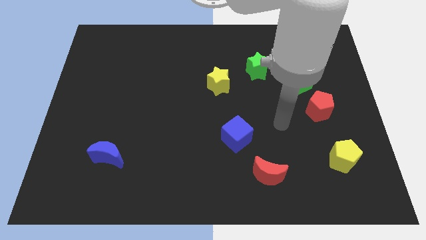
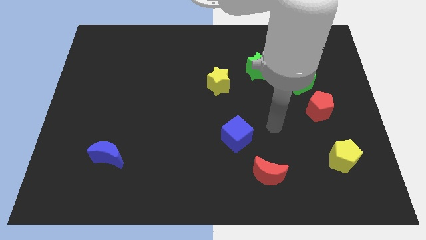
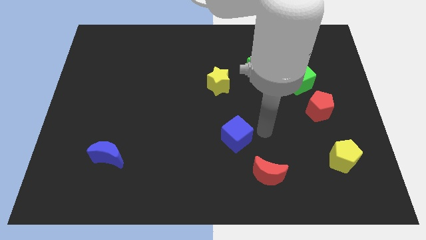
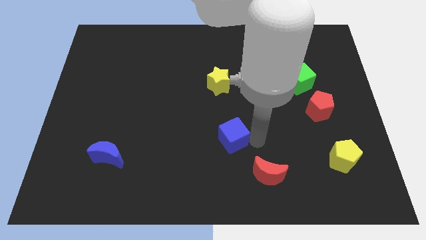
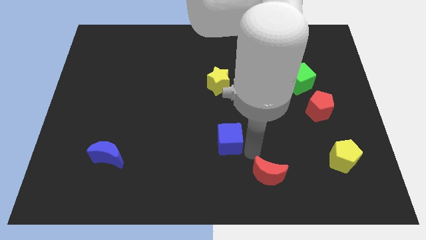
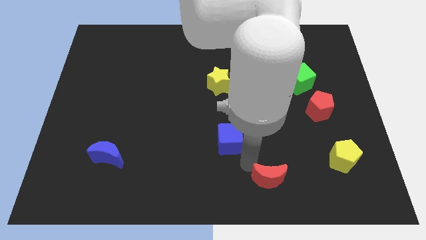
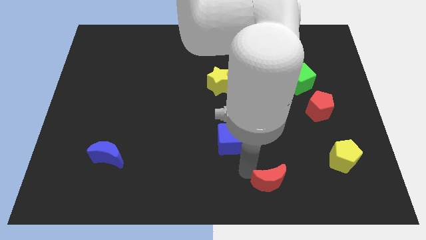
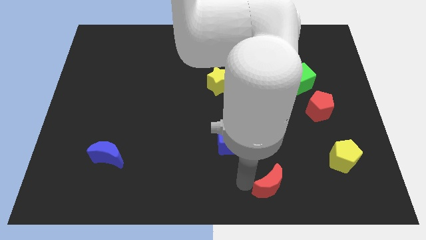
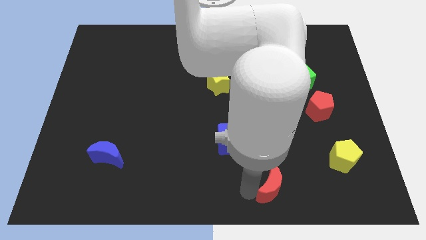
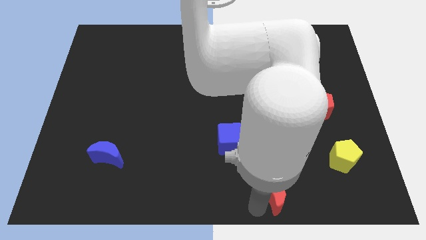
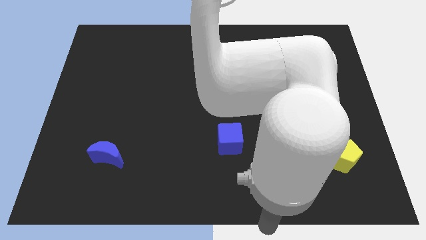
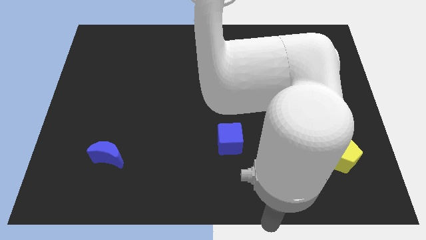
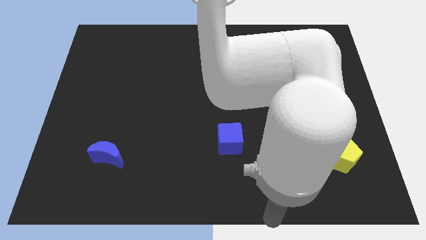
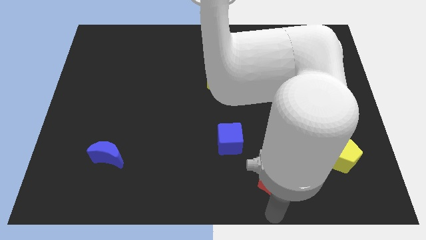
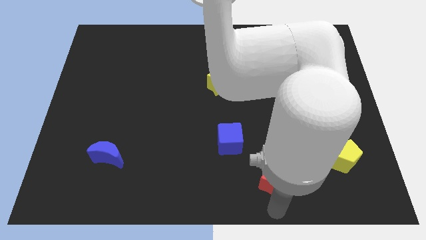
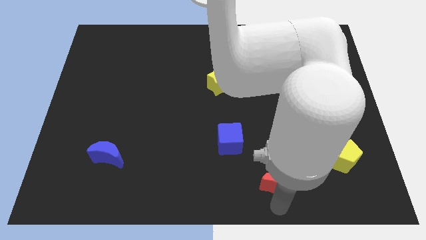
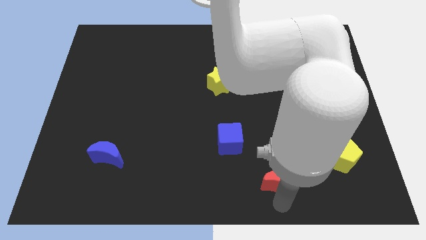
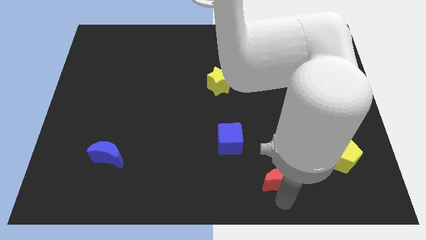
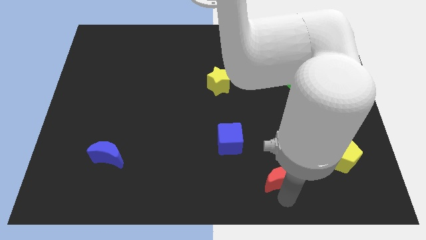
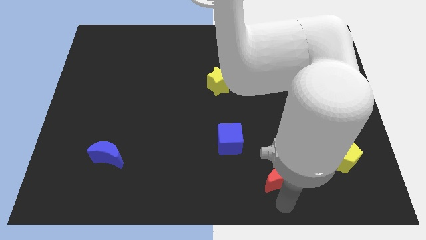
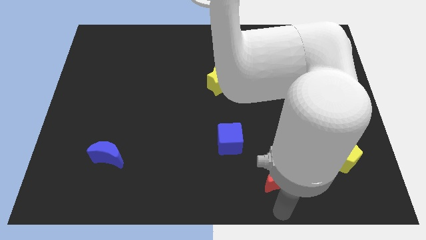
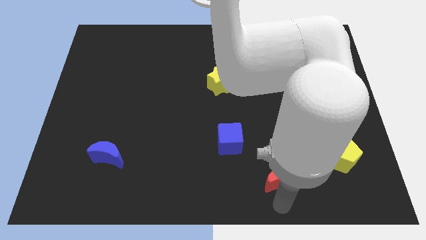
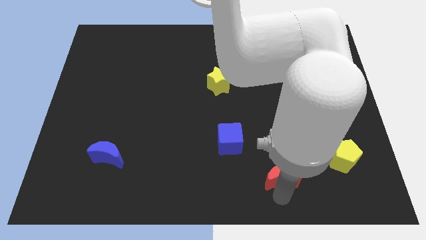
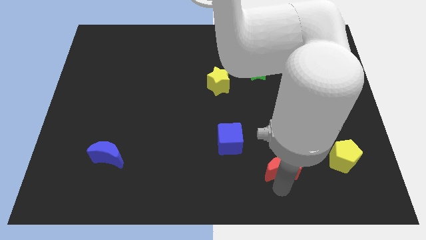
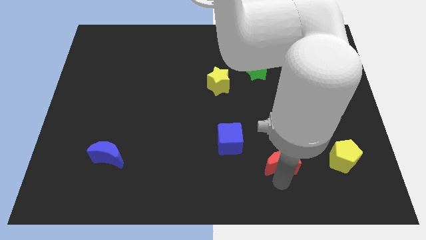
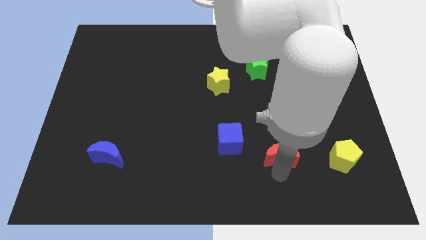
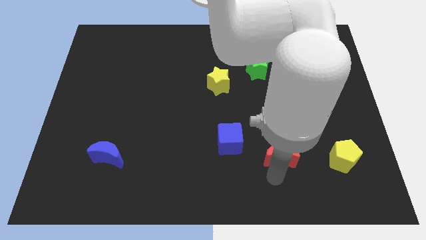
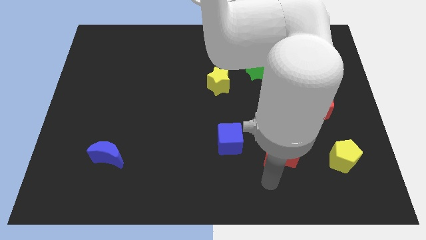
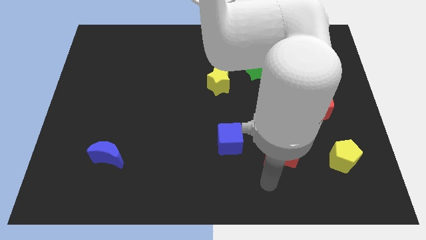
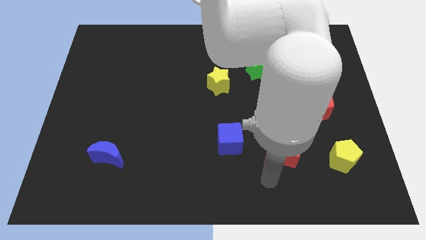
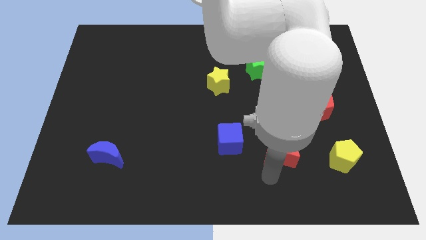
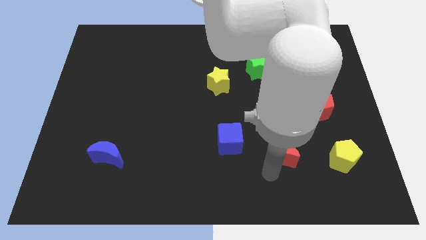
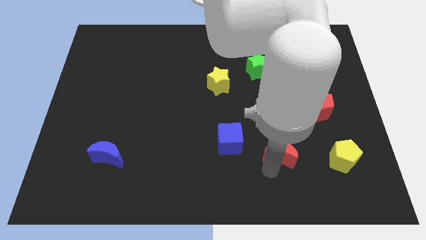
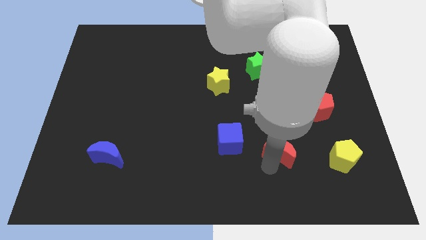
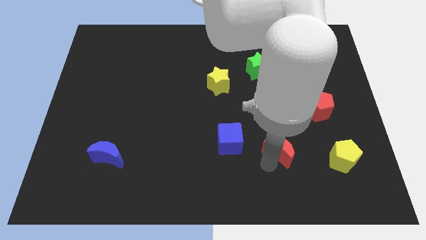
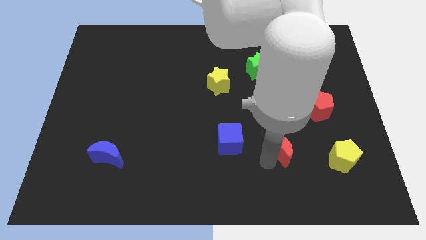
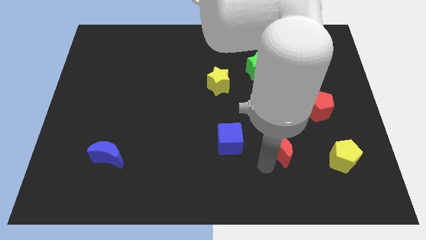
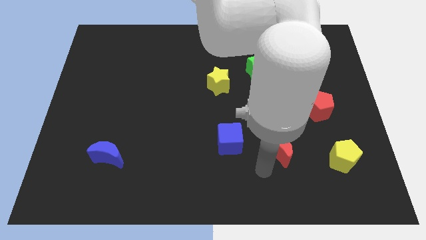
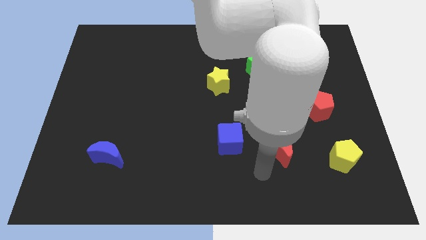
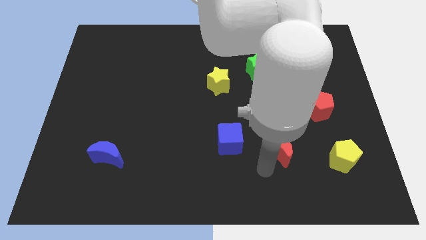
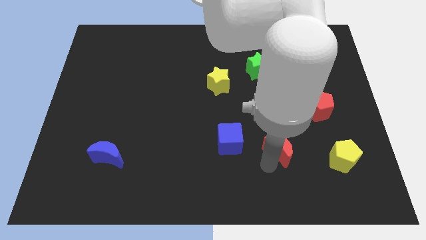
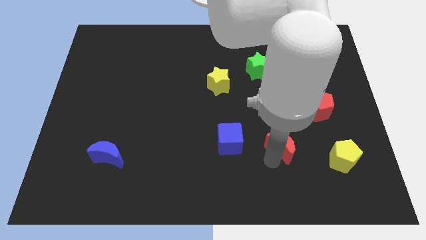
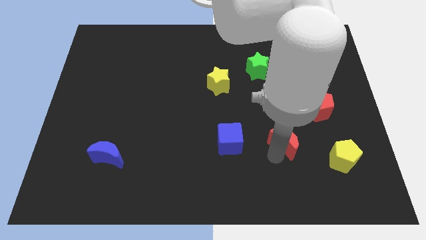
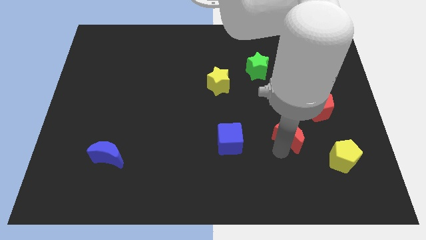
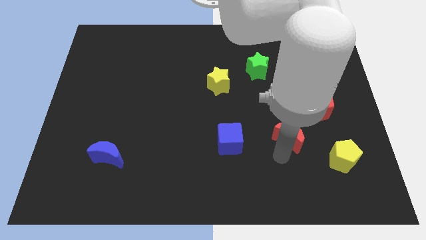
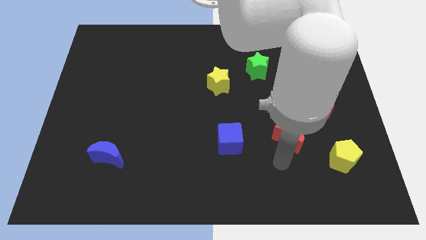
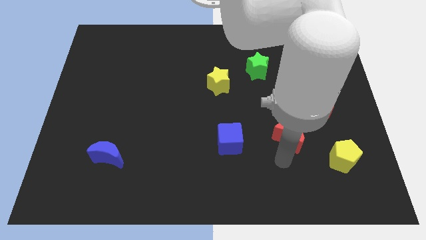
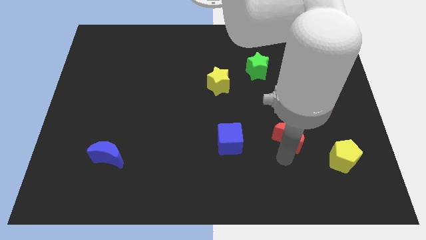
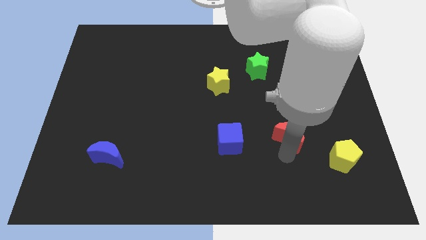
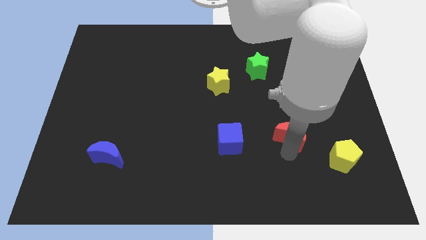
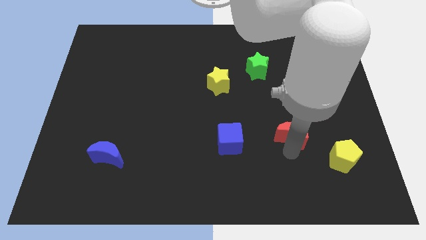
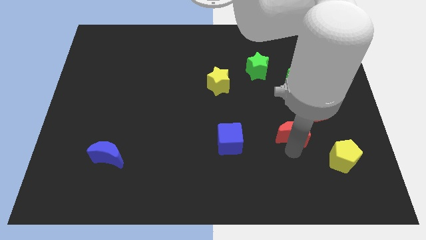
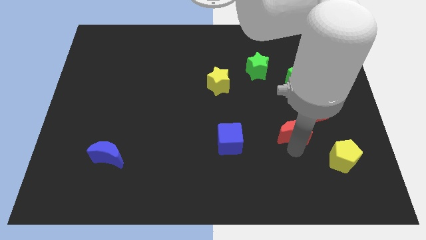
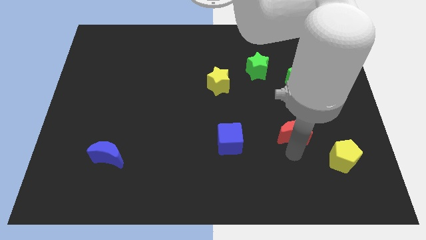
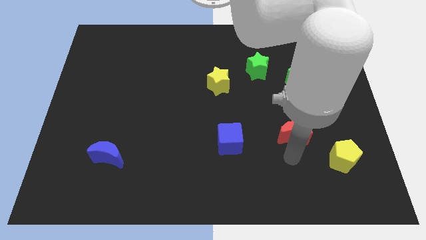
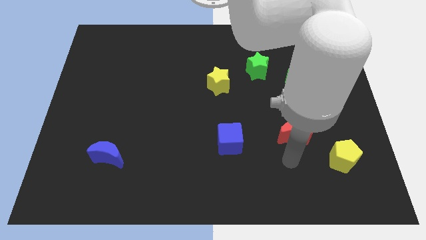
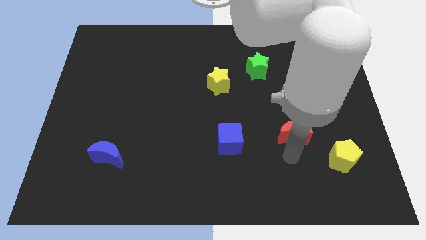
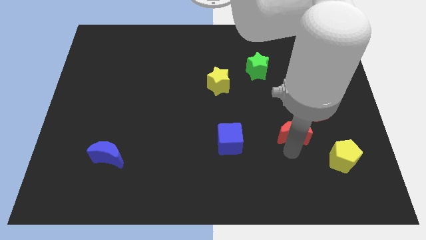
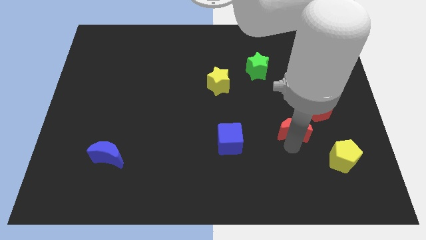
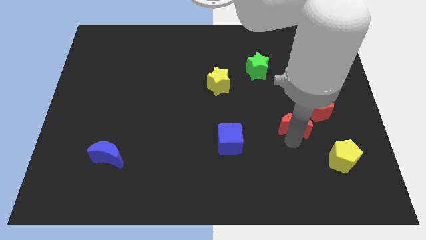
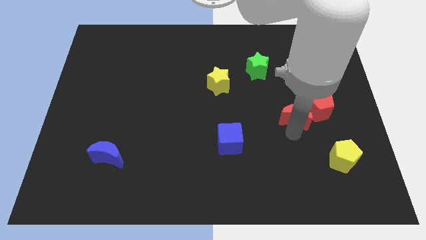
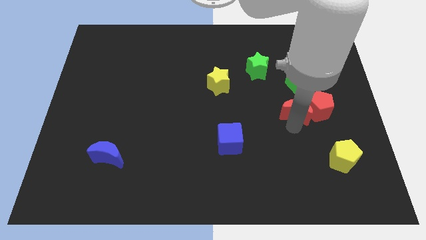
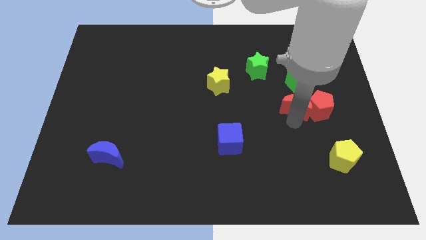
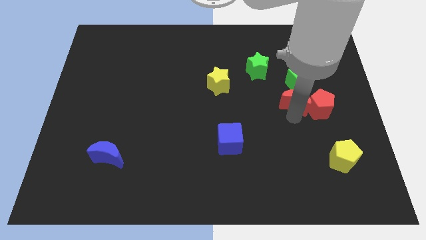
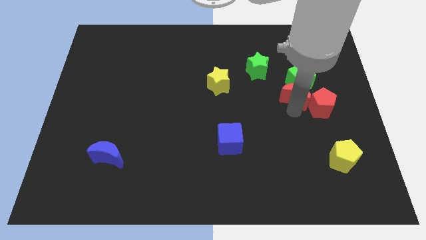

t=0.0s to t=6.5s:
put the red moon close to the green cube

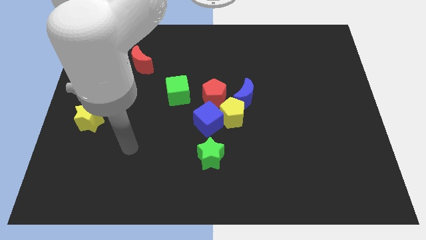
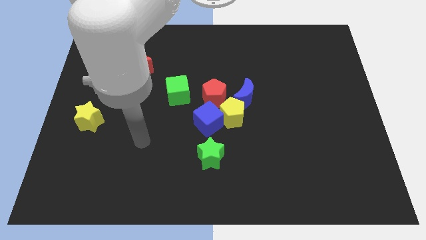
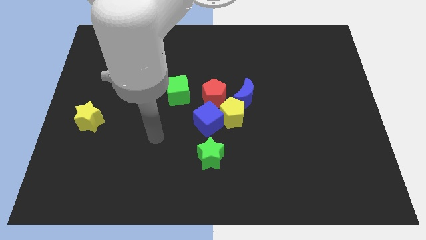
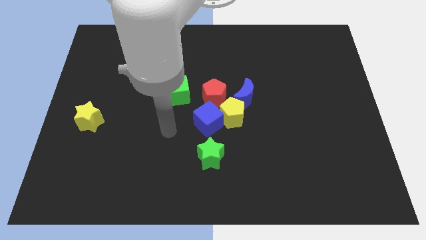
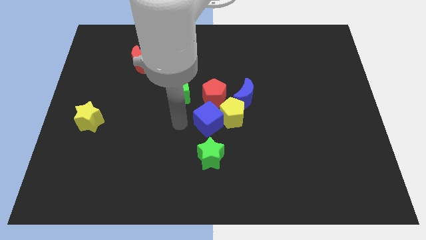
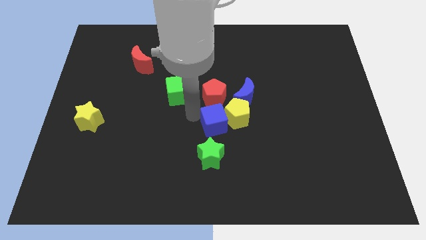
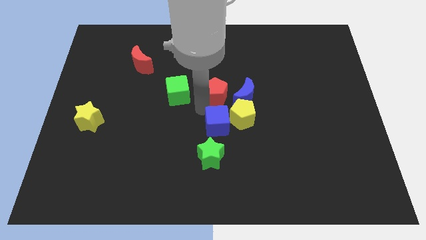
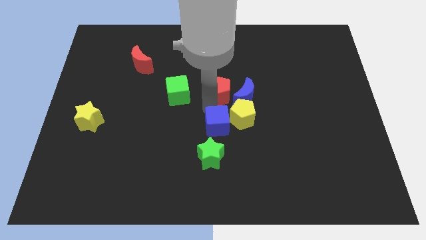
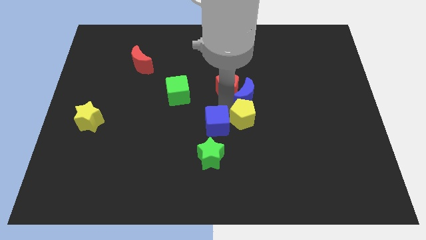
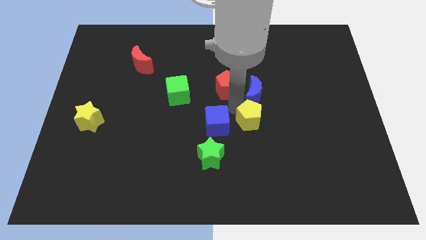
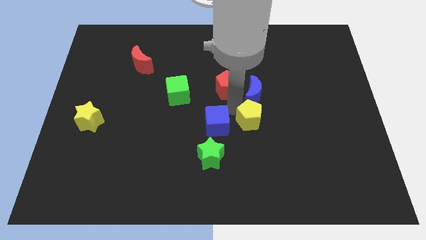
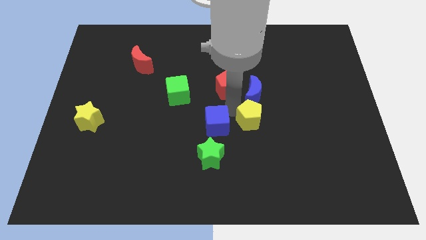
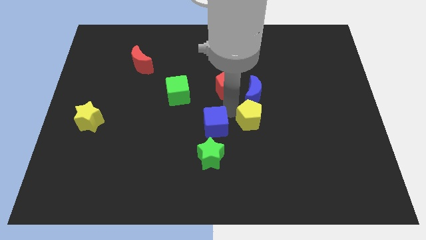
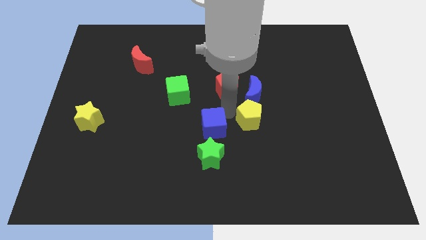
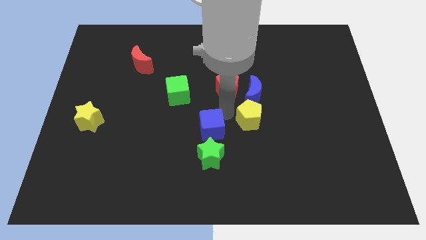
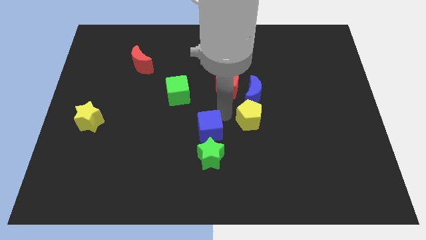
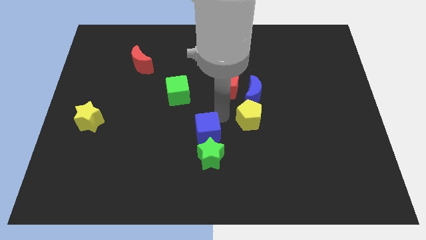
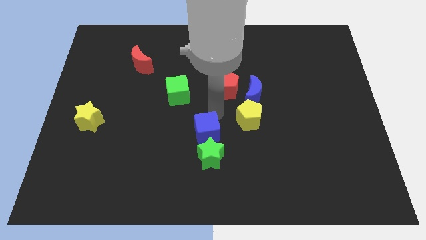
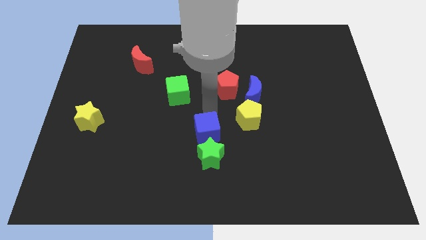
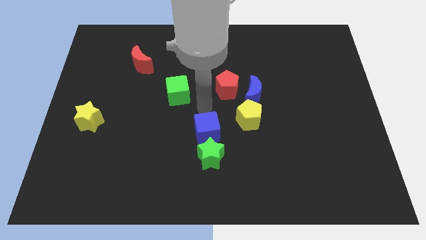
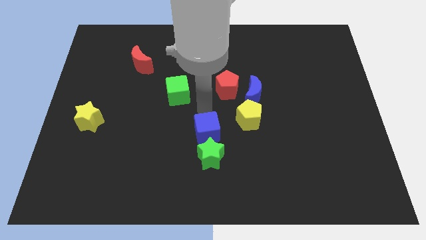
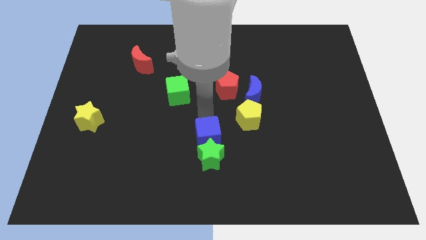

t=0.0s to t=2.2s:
move the blue cube close to the green star
